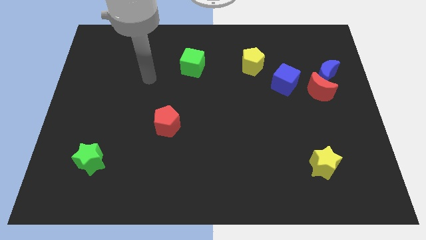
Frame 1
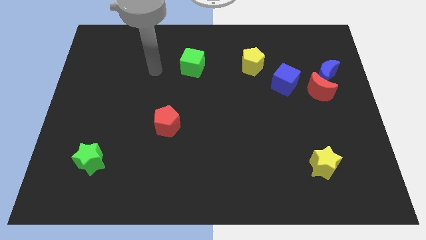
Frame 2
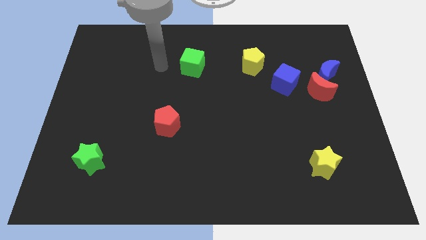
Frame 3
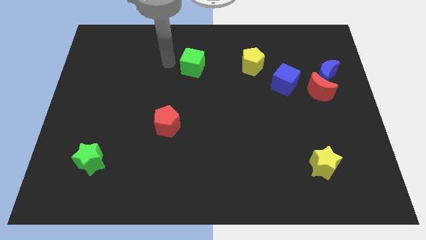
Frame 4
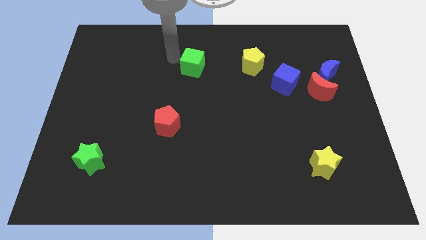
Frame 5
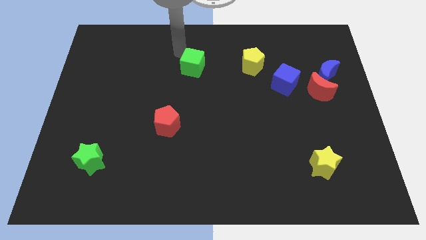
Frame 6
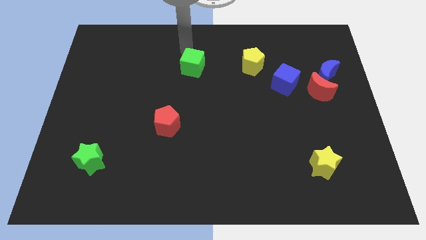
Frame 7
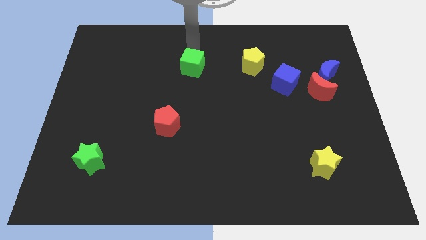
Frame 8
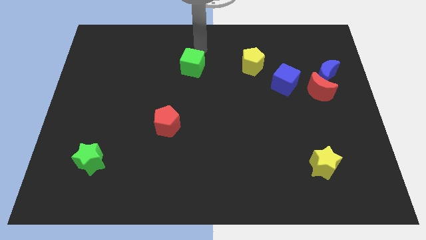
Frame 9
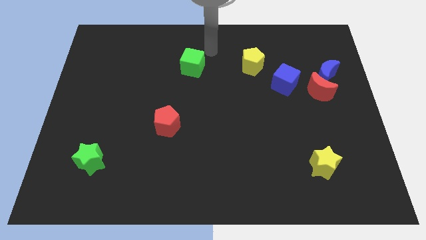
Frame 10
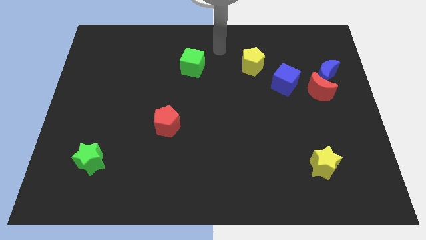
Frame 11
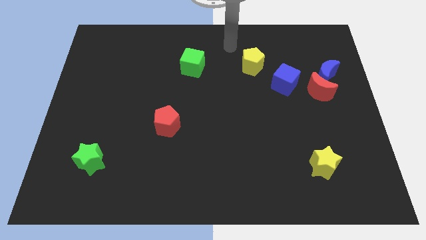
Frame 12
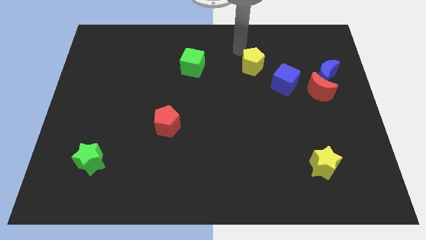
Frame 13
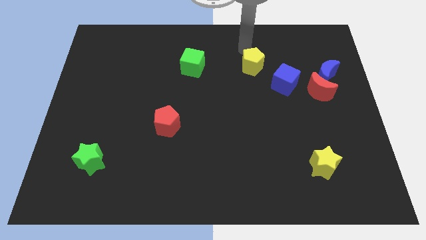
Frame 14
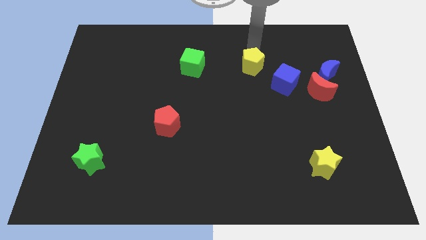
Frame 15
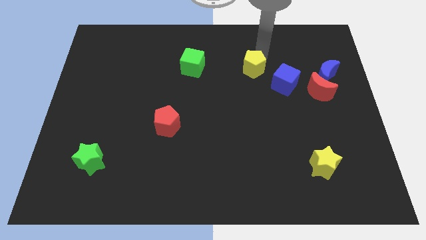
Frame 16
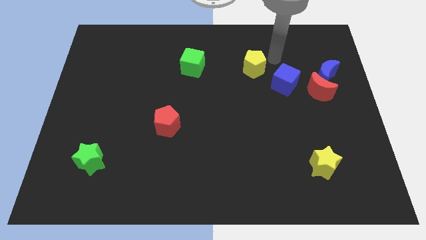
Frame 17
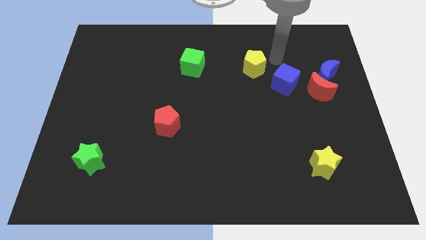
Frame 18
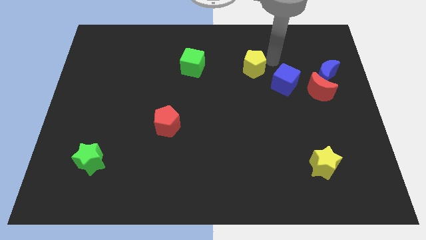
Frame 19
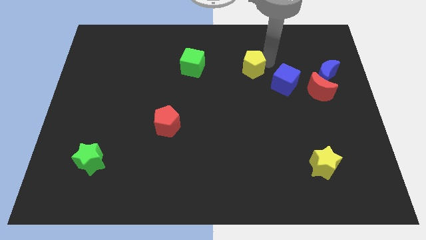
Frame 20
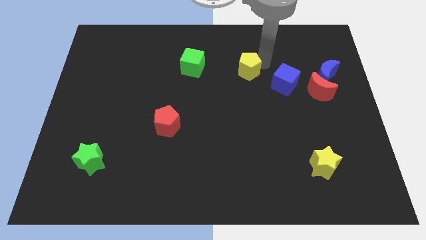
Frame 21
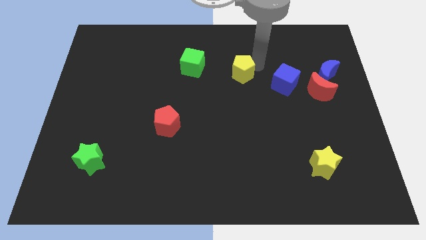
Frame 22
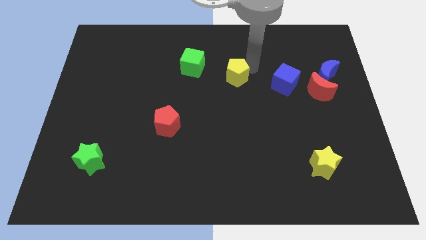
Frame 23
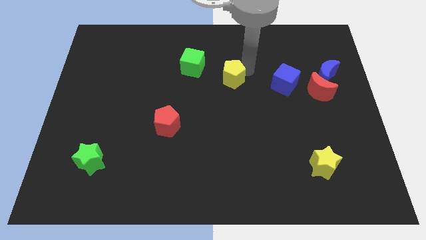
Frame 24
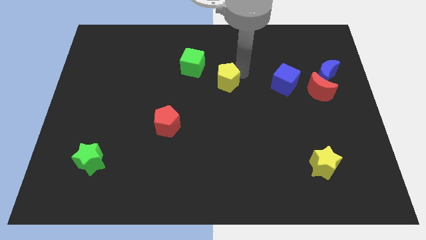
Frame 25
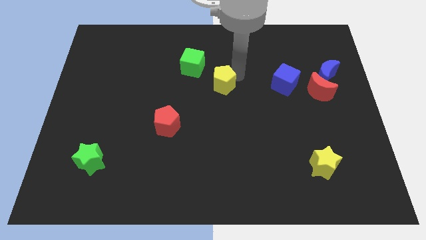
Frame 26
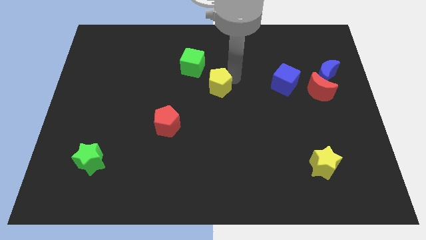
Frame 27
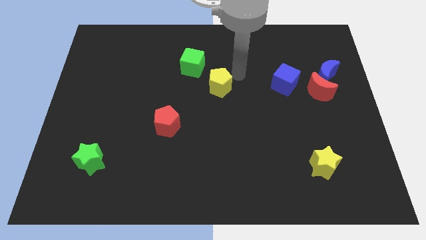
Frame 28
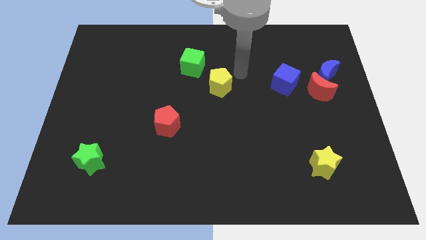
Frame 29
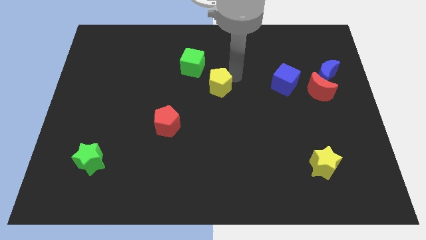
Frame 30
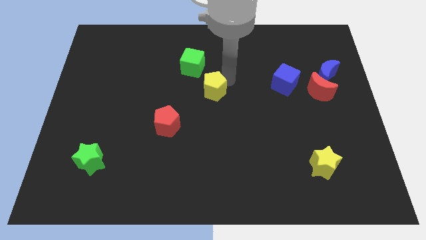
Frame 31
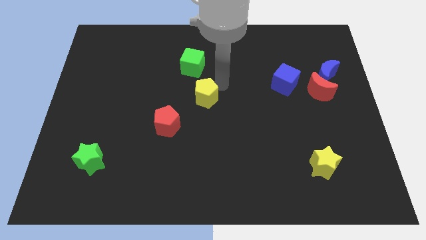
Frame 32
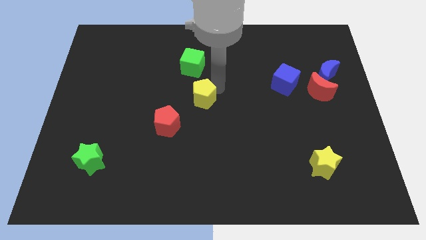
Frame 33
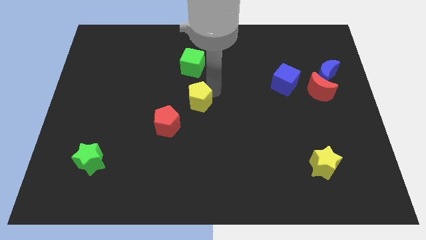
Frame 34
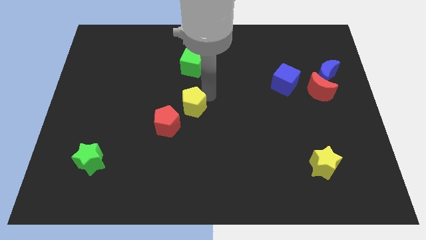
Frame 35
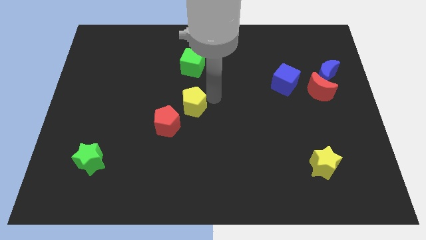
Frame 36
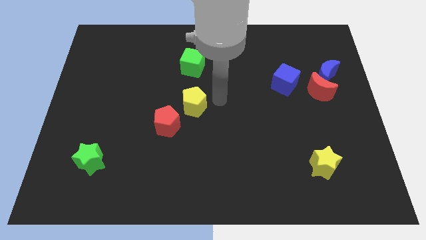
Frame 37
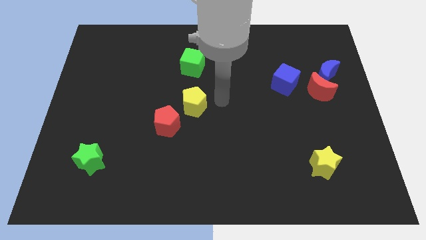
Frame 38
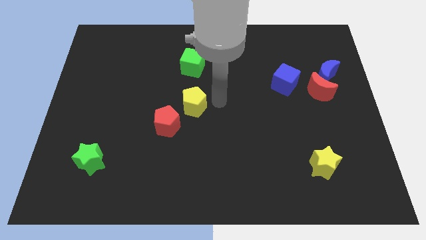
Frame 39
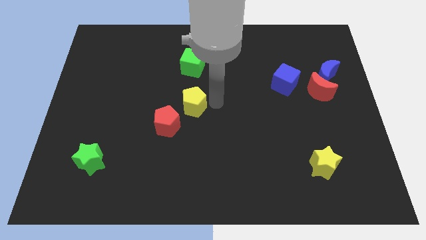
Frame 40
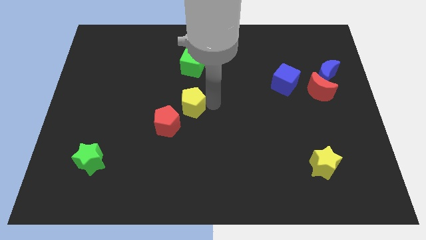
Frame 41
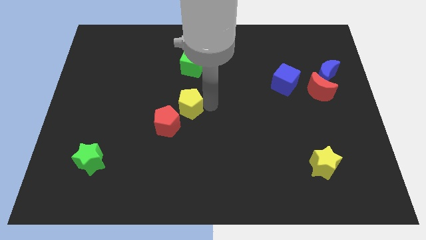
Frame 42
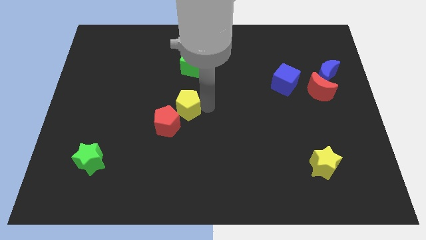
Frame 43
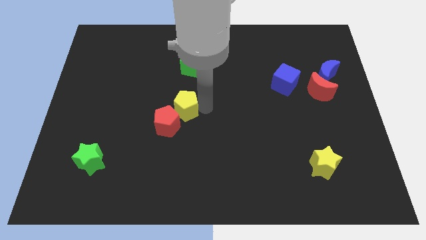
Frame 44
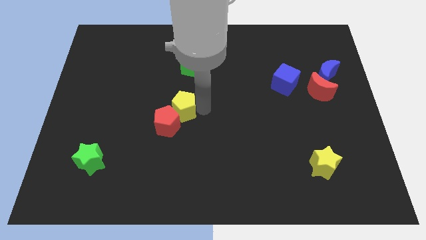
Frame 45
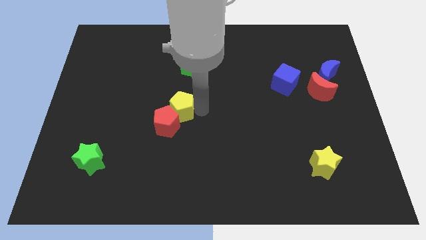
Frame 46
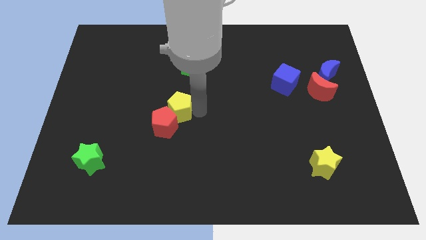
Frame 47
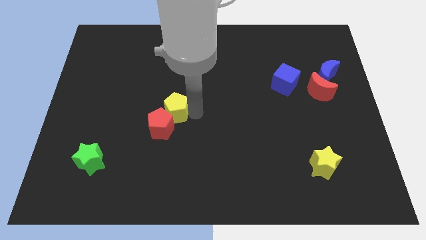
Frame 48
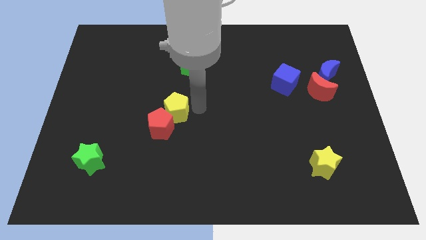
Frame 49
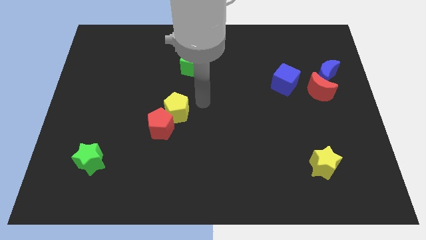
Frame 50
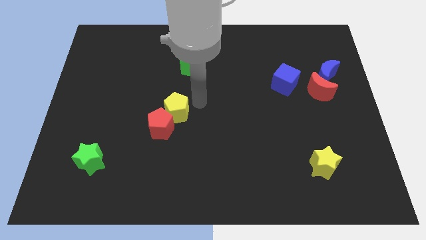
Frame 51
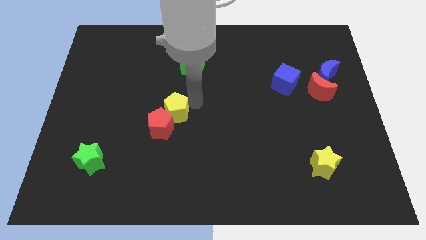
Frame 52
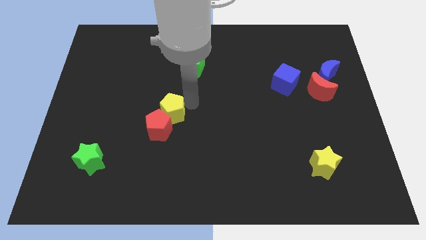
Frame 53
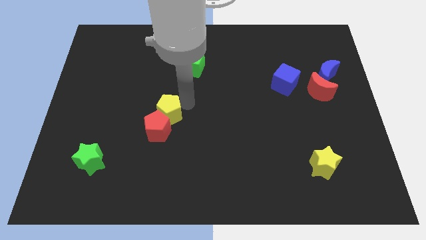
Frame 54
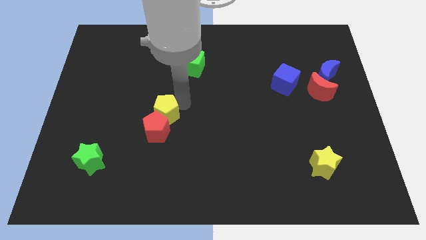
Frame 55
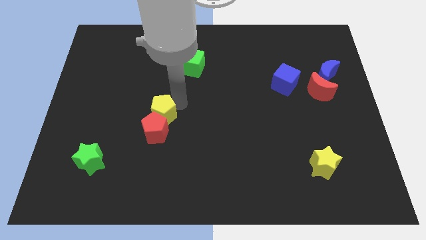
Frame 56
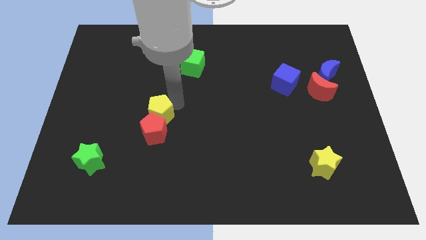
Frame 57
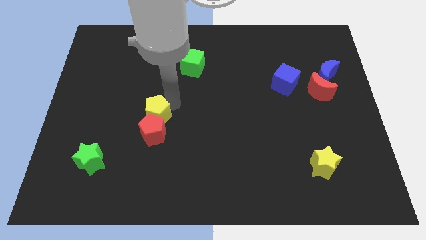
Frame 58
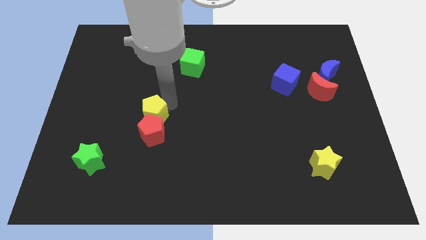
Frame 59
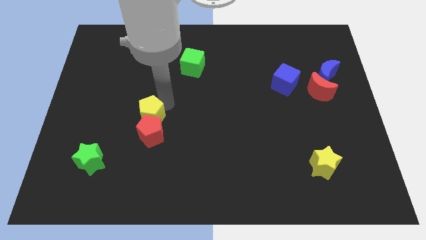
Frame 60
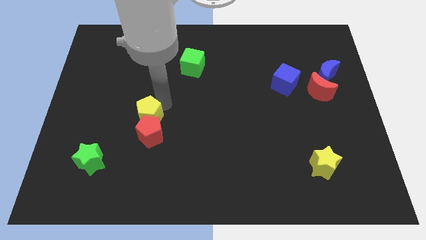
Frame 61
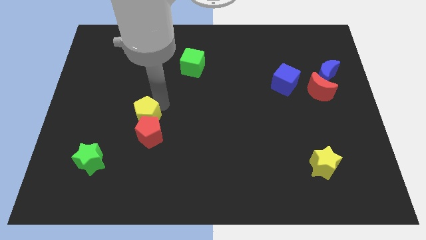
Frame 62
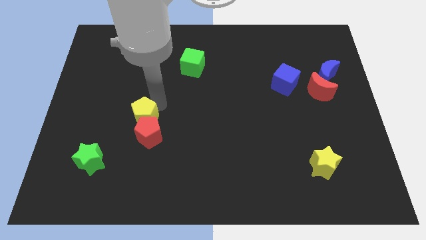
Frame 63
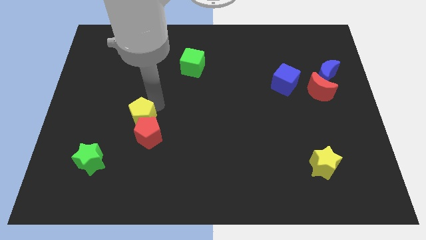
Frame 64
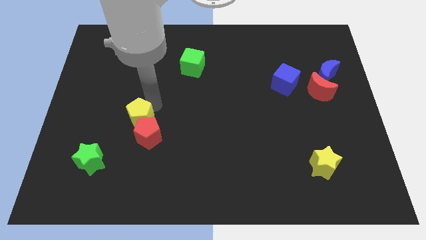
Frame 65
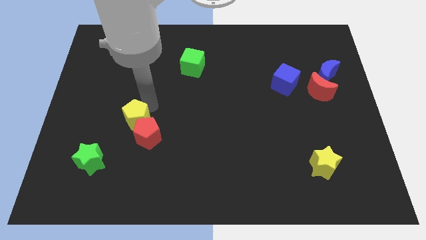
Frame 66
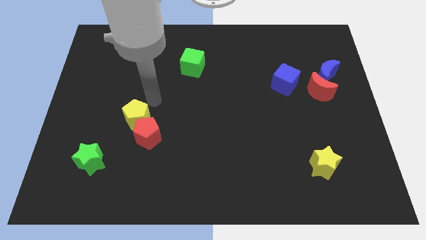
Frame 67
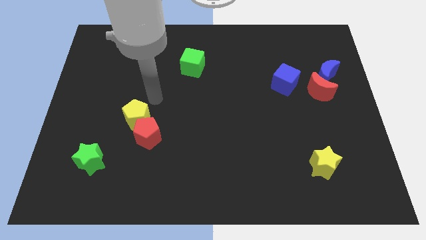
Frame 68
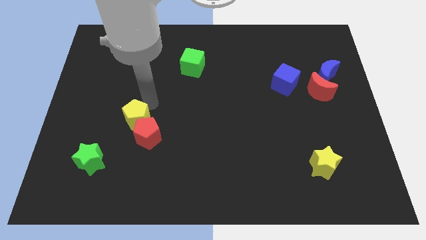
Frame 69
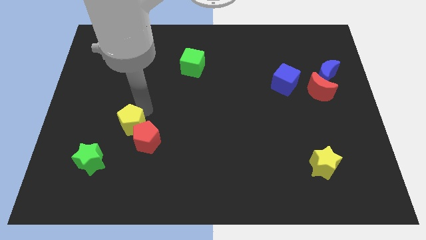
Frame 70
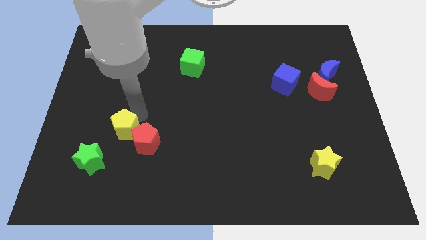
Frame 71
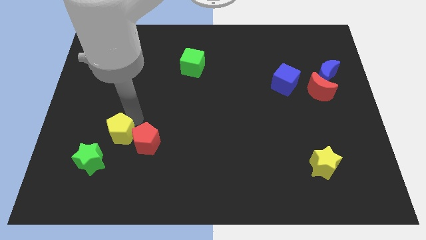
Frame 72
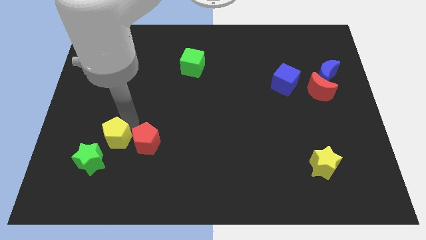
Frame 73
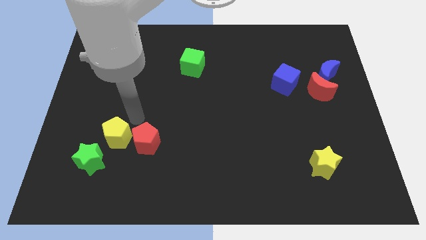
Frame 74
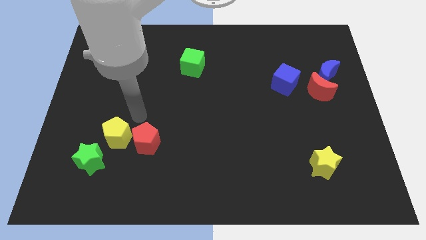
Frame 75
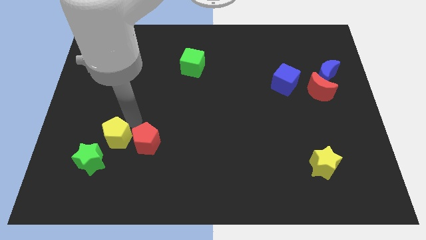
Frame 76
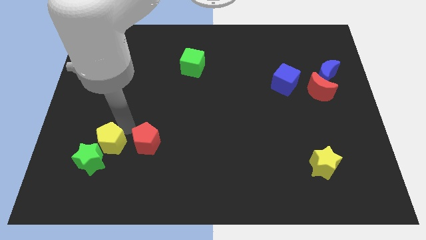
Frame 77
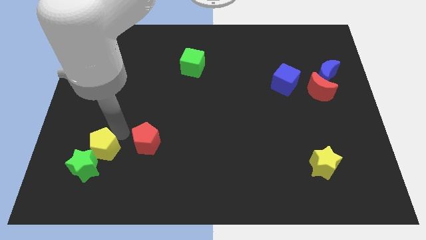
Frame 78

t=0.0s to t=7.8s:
push the yellow pentagon to the green star
